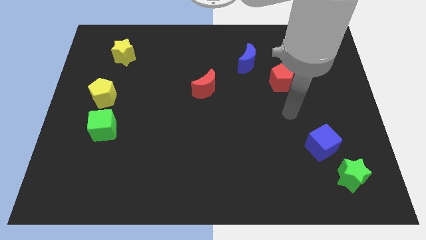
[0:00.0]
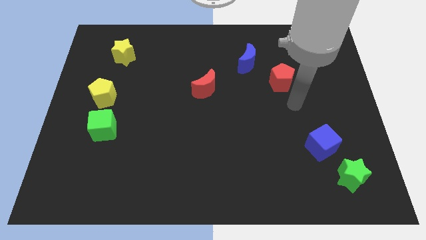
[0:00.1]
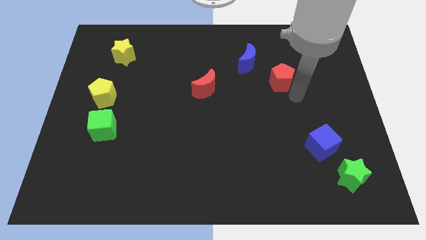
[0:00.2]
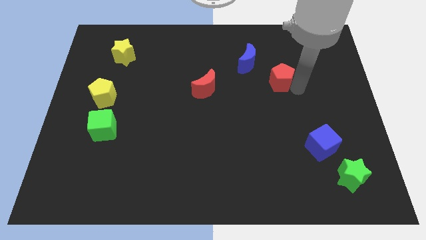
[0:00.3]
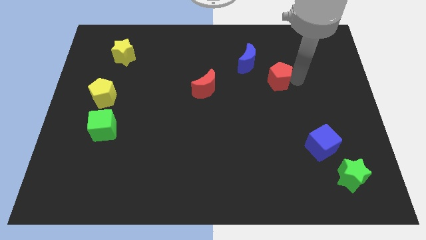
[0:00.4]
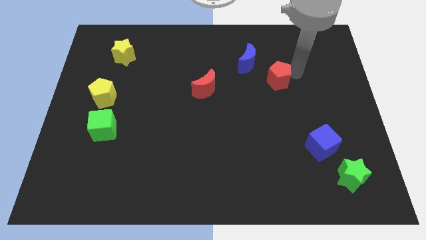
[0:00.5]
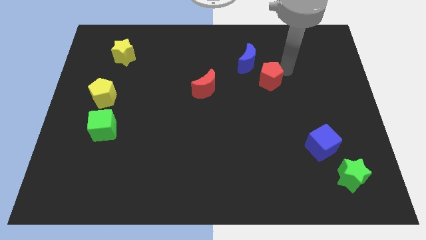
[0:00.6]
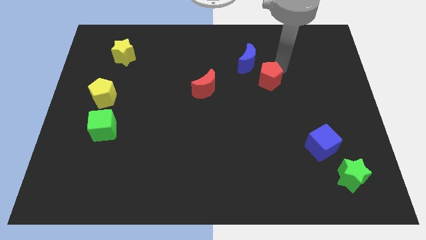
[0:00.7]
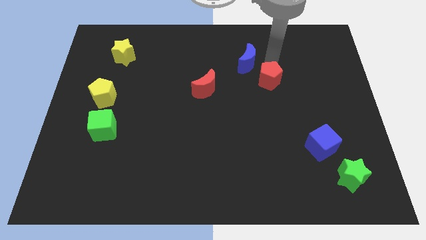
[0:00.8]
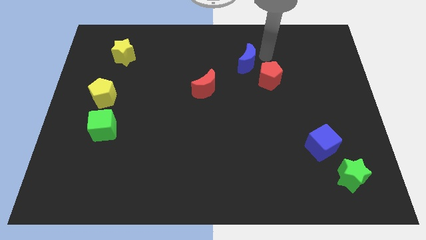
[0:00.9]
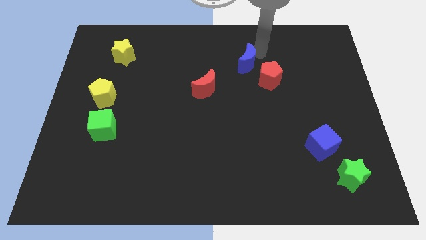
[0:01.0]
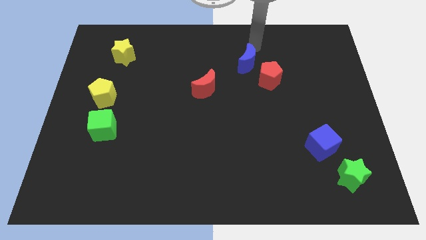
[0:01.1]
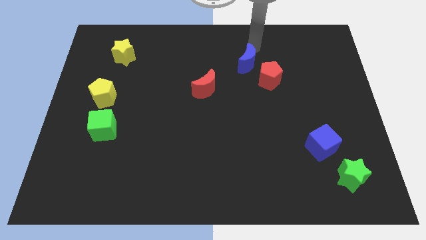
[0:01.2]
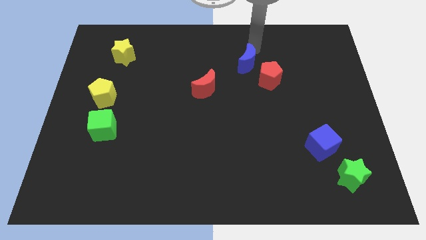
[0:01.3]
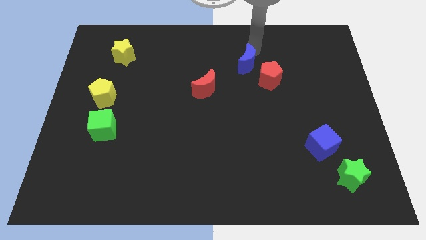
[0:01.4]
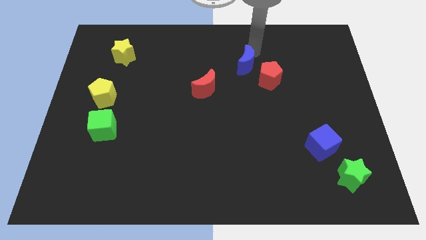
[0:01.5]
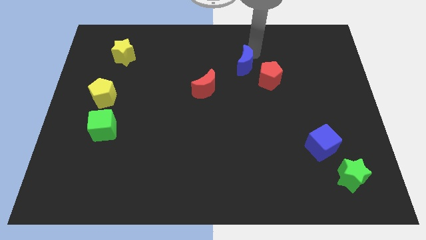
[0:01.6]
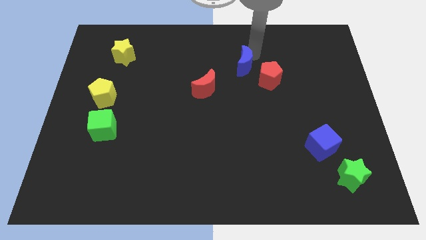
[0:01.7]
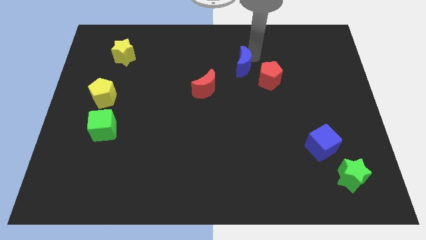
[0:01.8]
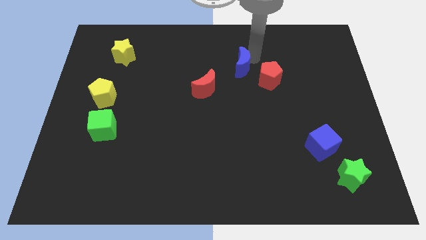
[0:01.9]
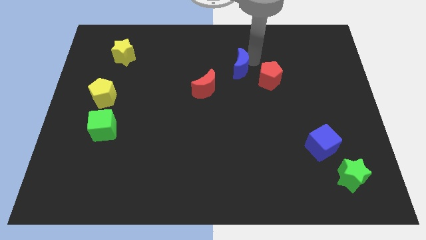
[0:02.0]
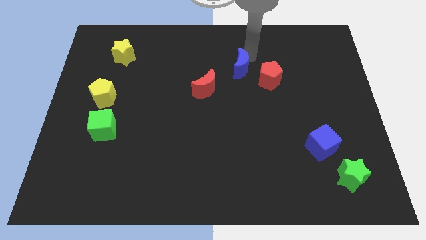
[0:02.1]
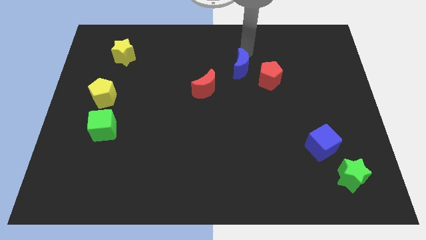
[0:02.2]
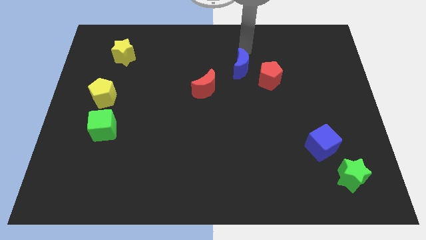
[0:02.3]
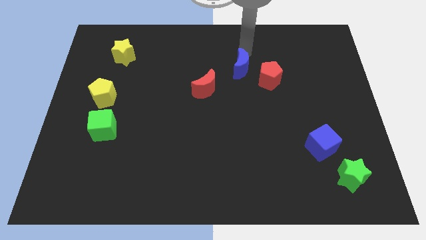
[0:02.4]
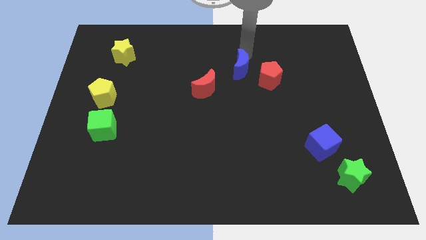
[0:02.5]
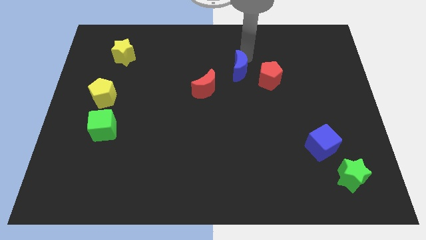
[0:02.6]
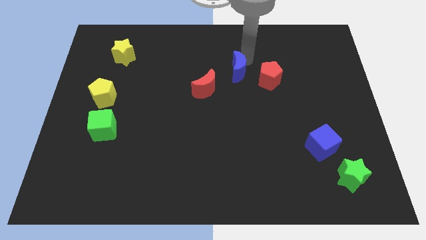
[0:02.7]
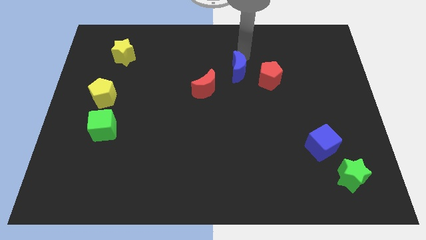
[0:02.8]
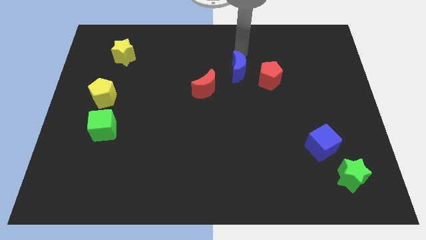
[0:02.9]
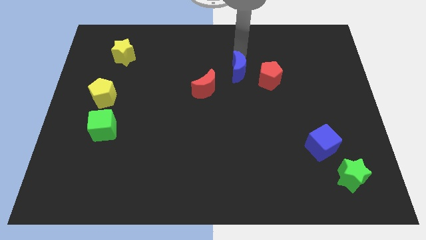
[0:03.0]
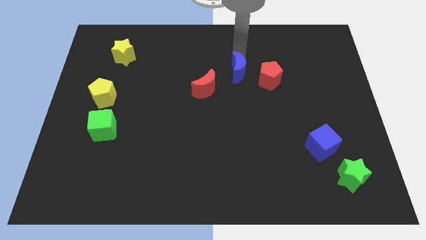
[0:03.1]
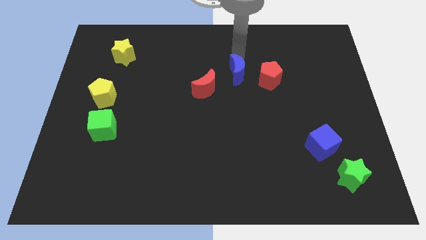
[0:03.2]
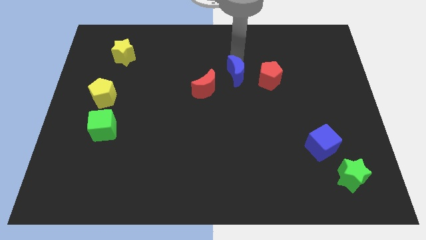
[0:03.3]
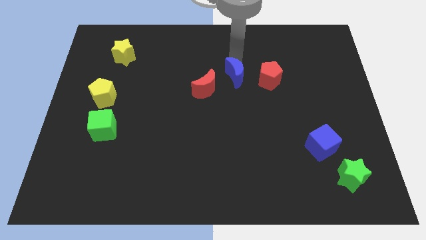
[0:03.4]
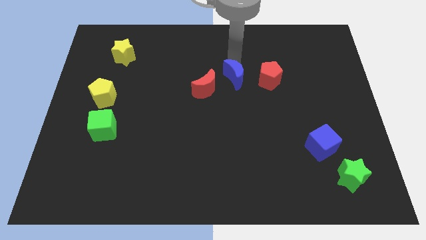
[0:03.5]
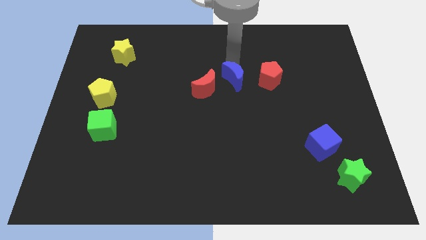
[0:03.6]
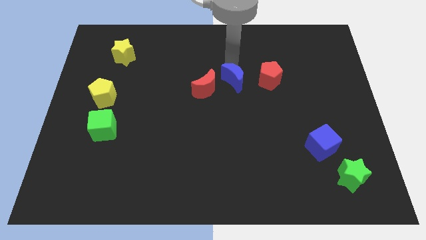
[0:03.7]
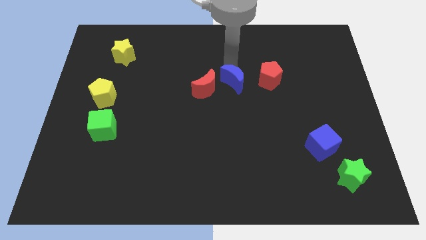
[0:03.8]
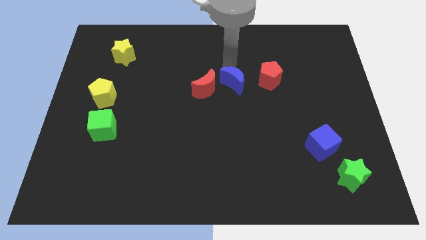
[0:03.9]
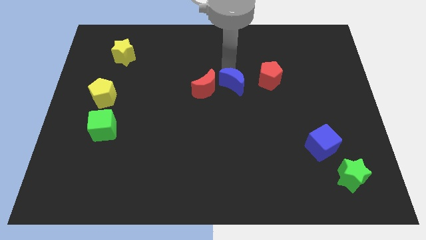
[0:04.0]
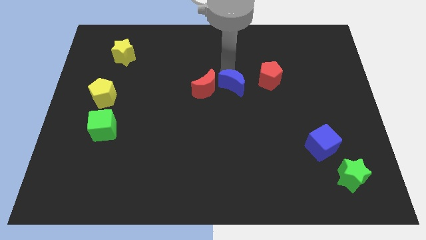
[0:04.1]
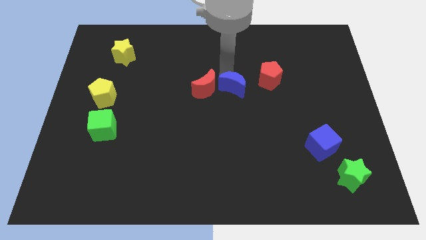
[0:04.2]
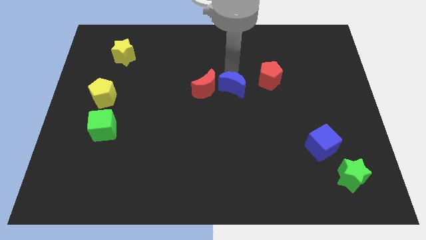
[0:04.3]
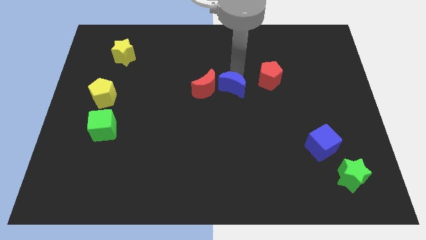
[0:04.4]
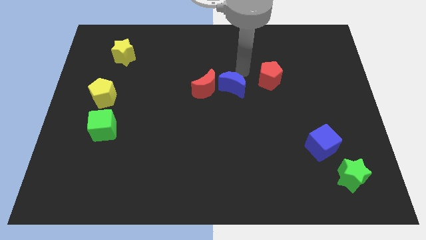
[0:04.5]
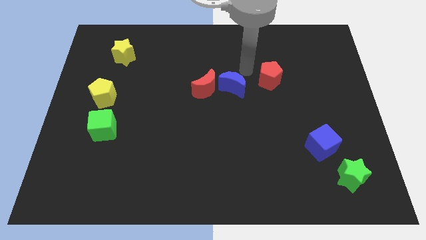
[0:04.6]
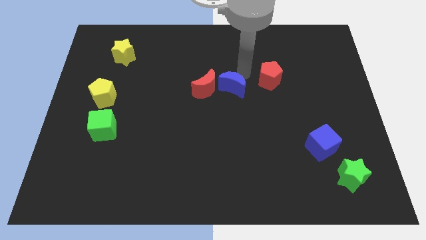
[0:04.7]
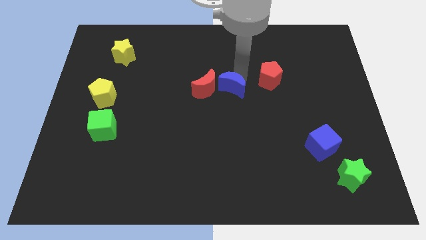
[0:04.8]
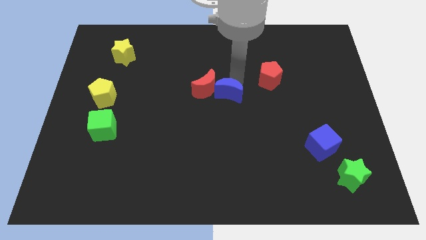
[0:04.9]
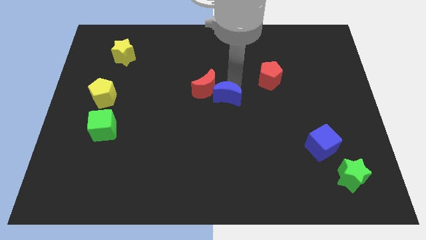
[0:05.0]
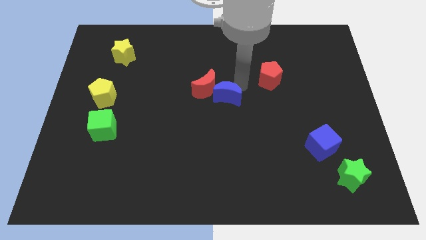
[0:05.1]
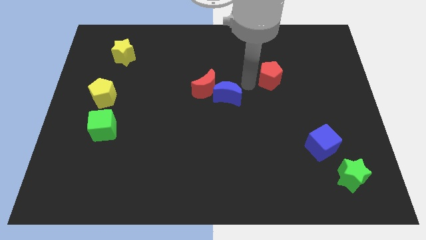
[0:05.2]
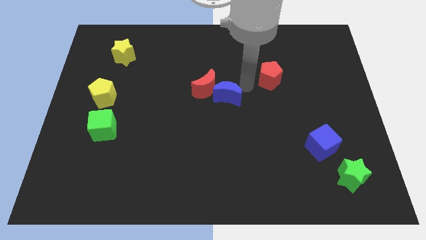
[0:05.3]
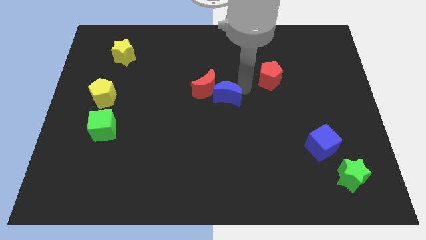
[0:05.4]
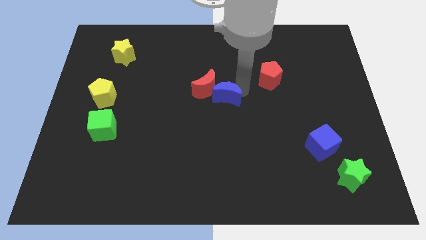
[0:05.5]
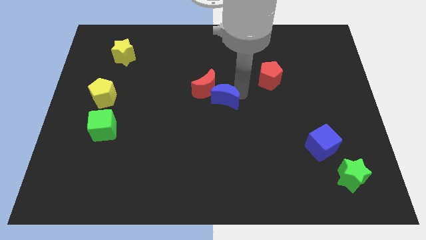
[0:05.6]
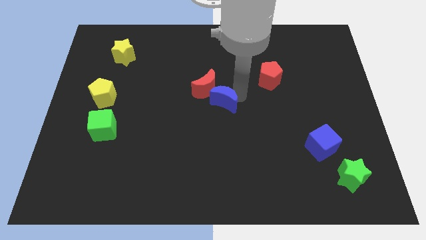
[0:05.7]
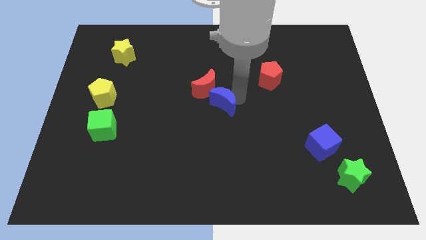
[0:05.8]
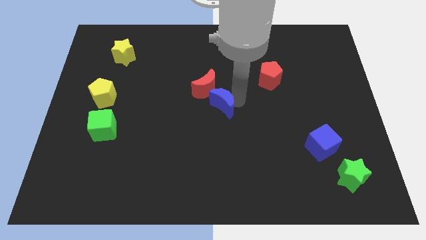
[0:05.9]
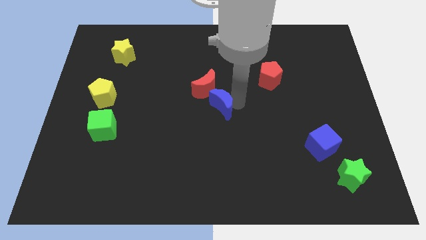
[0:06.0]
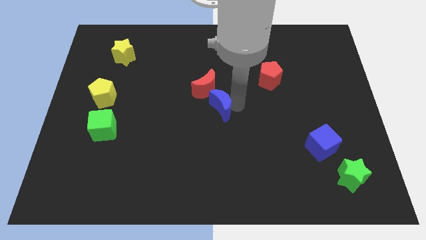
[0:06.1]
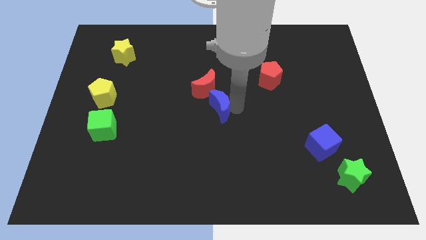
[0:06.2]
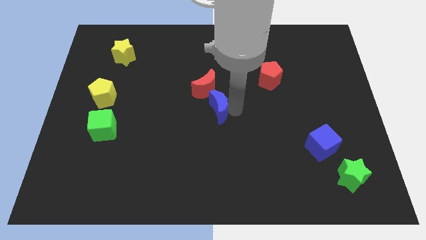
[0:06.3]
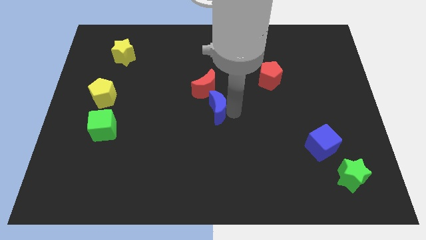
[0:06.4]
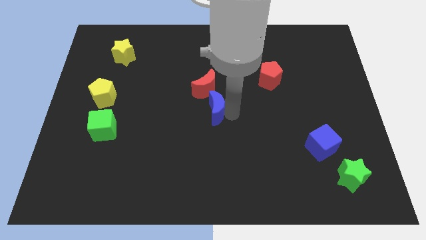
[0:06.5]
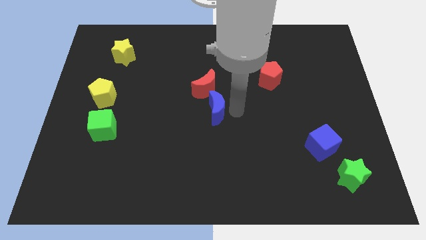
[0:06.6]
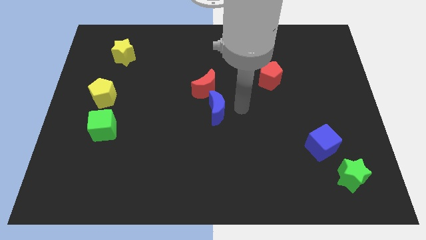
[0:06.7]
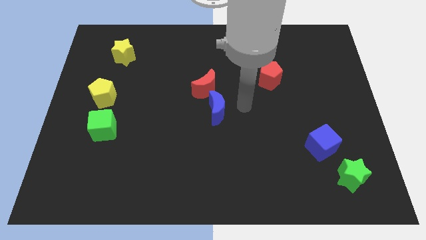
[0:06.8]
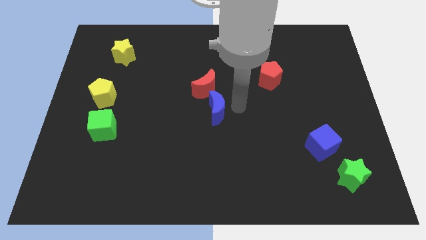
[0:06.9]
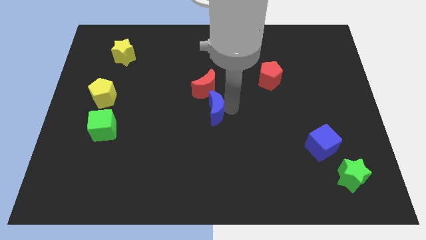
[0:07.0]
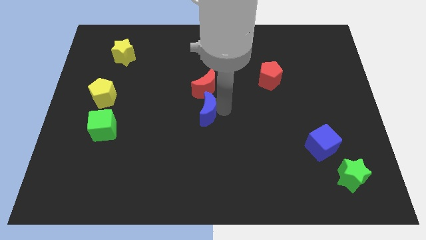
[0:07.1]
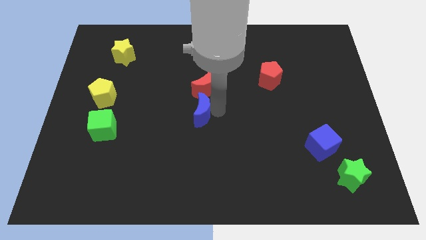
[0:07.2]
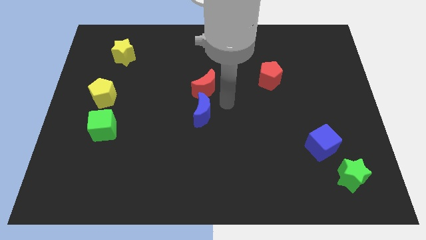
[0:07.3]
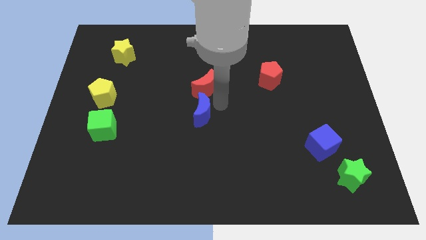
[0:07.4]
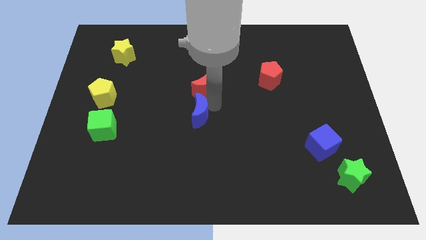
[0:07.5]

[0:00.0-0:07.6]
push the blue moon downwards and then left

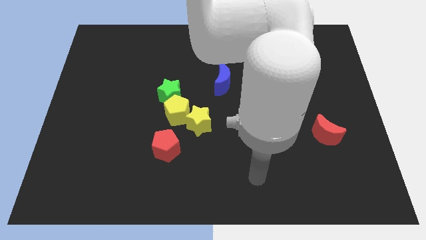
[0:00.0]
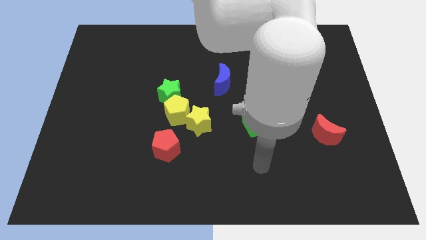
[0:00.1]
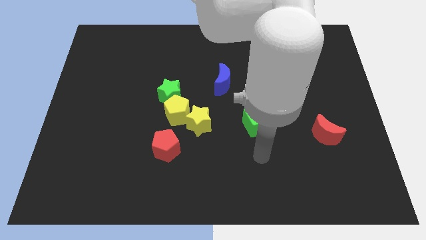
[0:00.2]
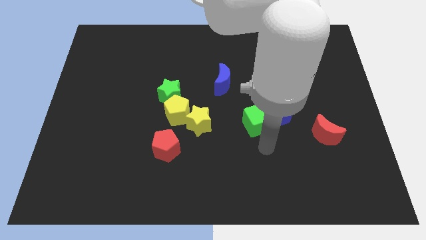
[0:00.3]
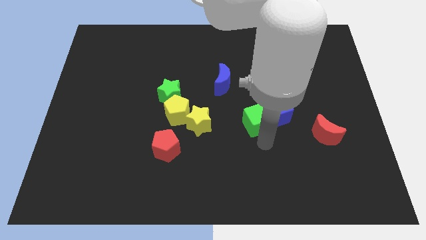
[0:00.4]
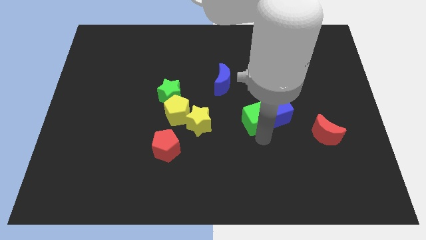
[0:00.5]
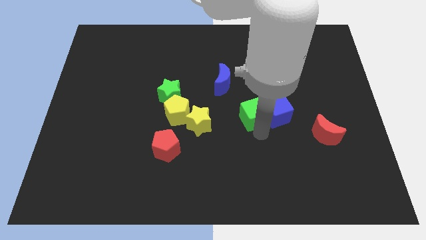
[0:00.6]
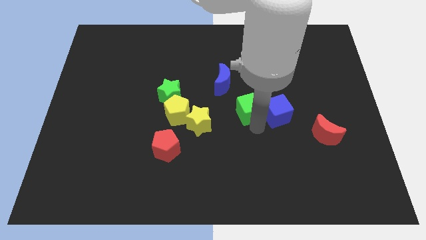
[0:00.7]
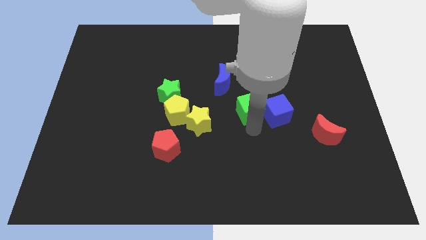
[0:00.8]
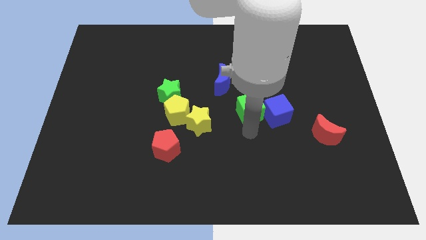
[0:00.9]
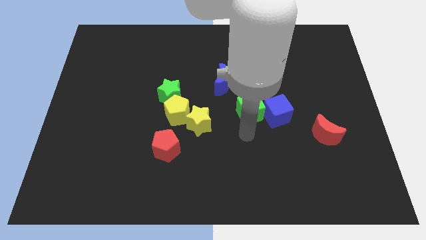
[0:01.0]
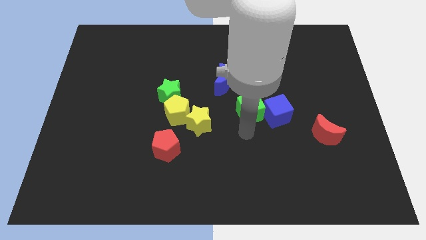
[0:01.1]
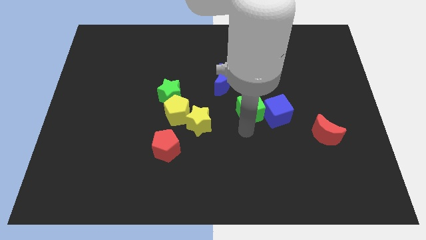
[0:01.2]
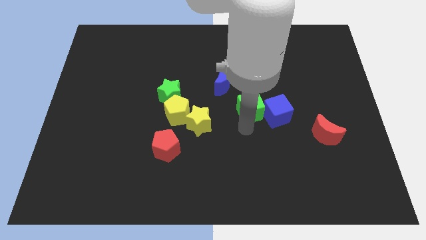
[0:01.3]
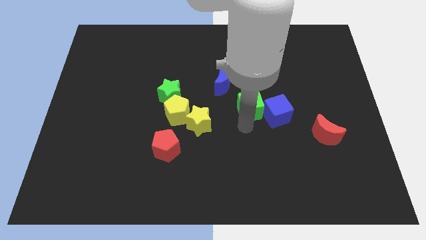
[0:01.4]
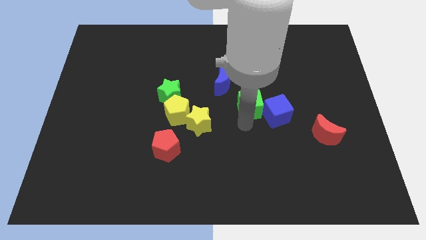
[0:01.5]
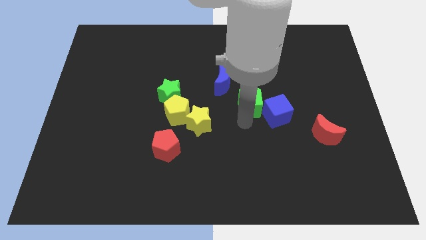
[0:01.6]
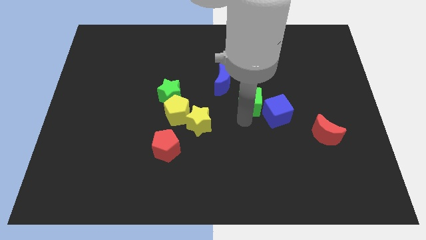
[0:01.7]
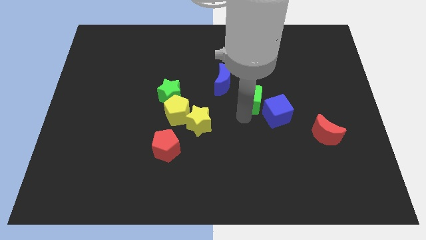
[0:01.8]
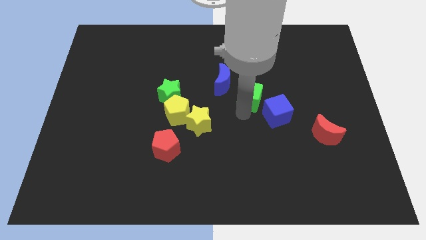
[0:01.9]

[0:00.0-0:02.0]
slightly move the green cube upwards
